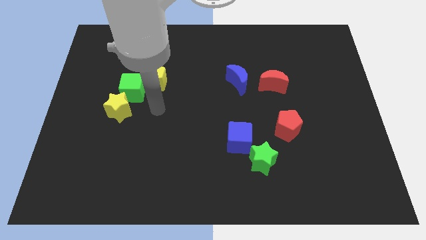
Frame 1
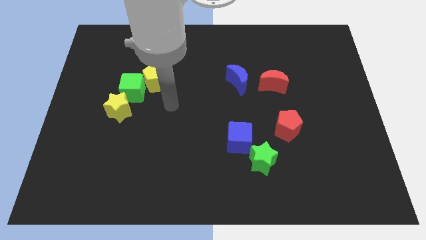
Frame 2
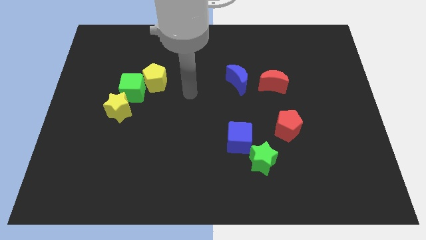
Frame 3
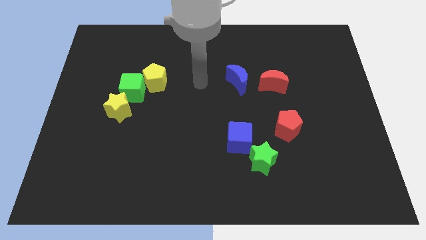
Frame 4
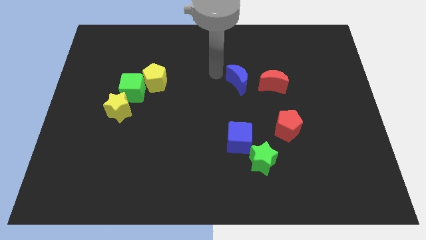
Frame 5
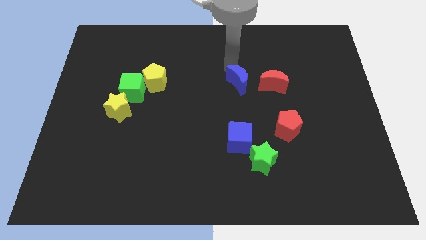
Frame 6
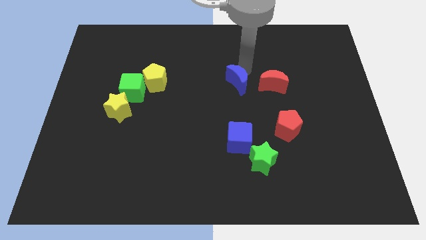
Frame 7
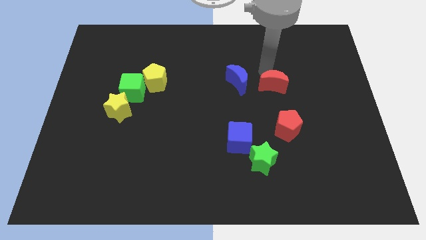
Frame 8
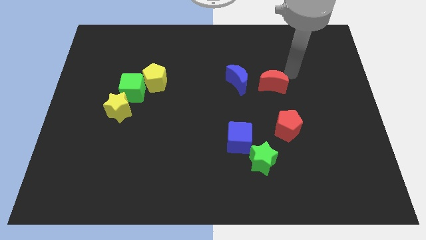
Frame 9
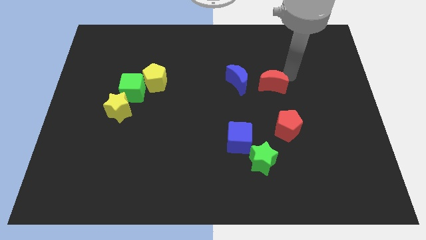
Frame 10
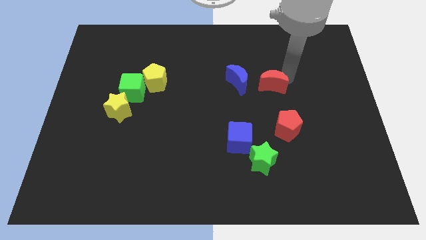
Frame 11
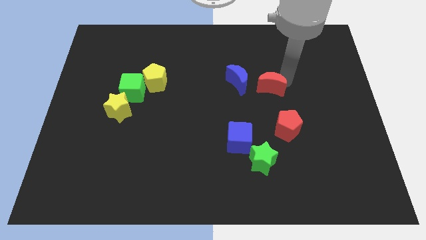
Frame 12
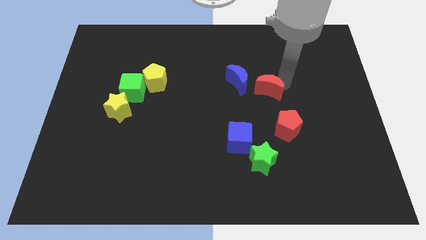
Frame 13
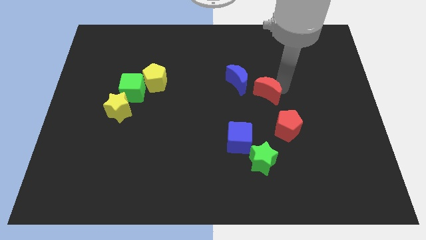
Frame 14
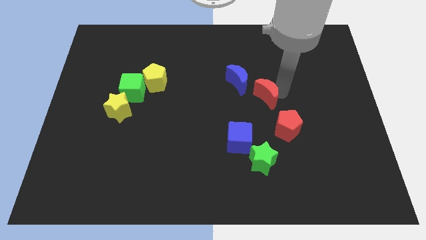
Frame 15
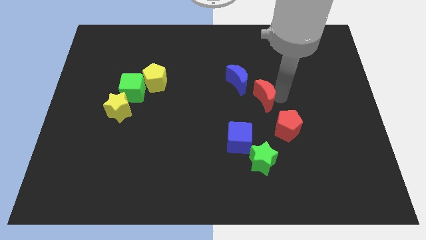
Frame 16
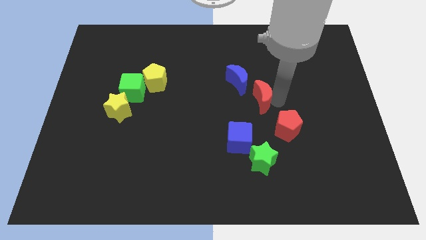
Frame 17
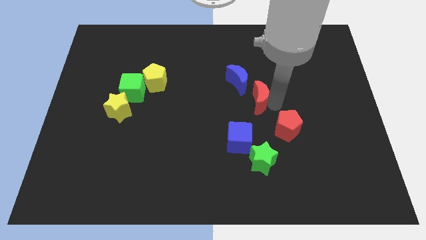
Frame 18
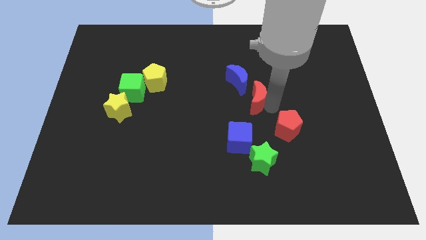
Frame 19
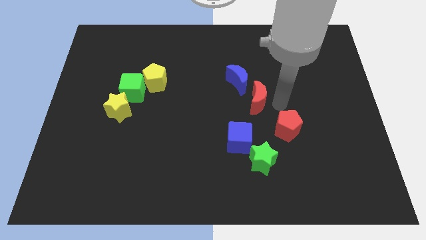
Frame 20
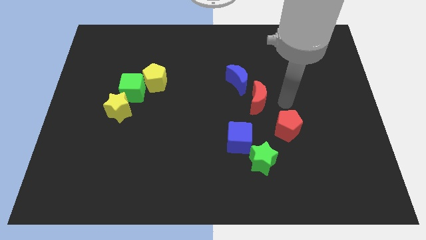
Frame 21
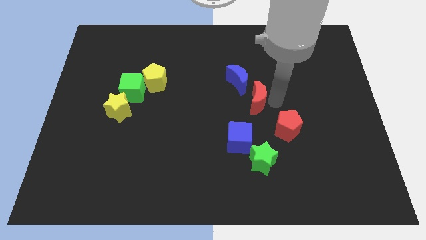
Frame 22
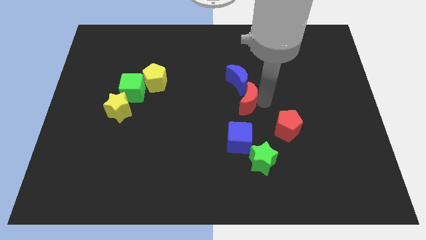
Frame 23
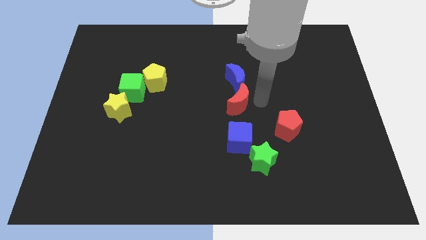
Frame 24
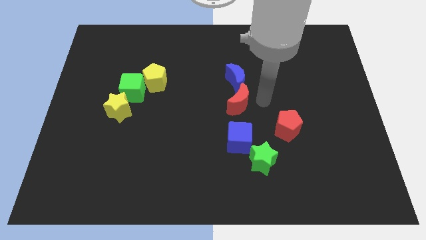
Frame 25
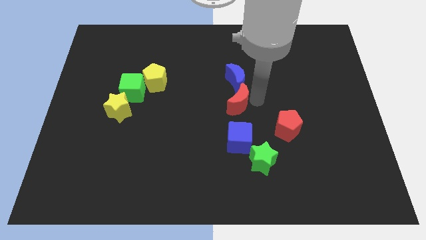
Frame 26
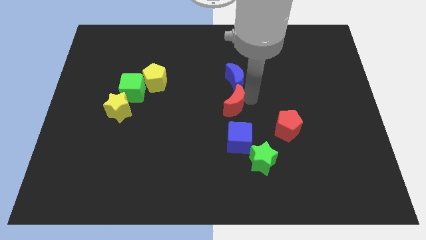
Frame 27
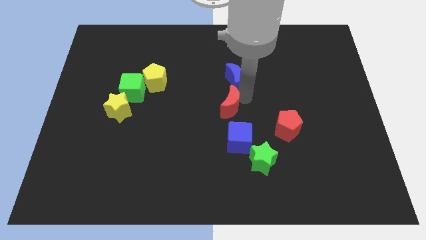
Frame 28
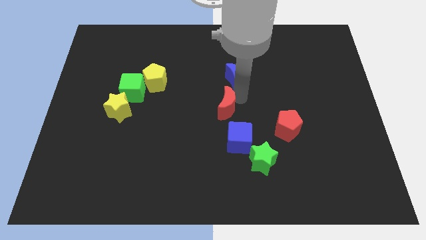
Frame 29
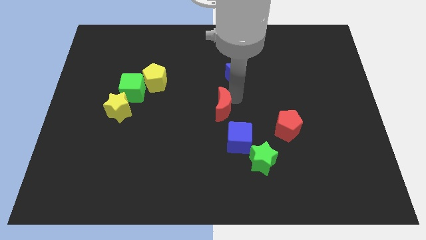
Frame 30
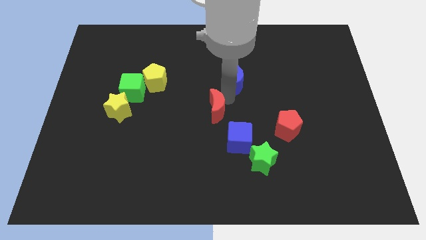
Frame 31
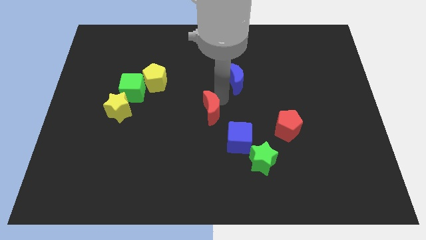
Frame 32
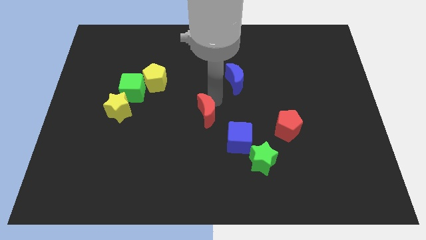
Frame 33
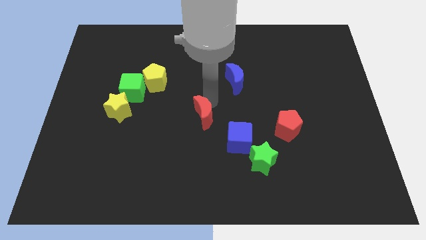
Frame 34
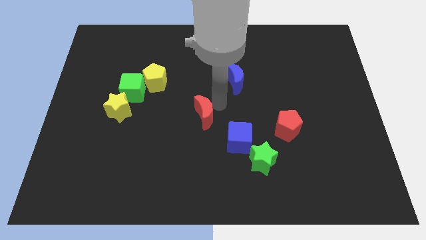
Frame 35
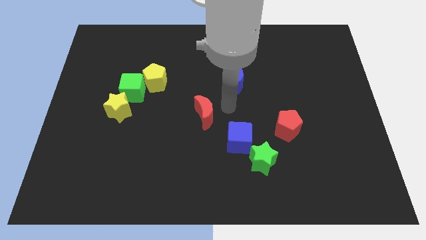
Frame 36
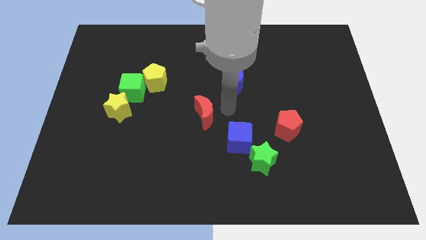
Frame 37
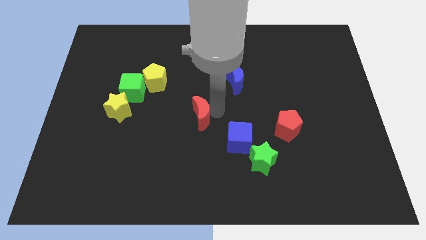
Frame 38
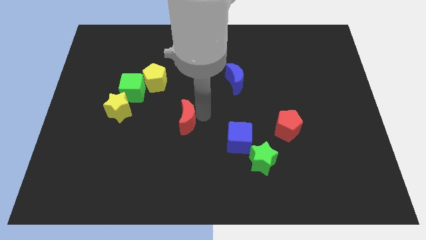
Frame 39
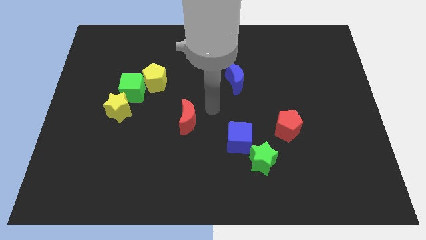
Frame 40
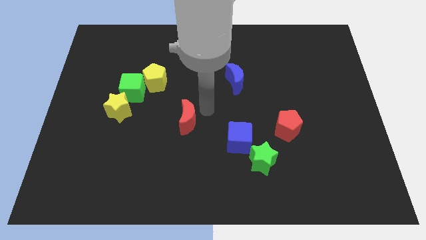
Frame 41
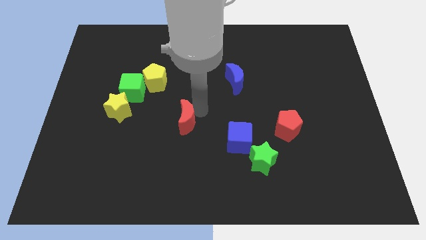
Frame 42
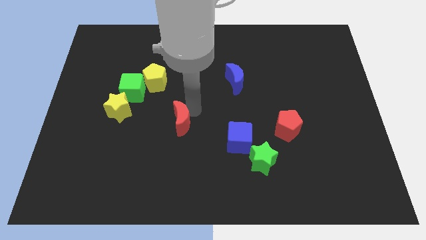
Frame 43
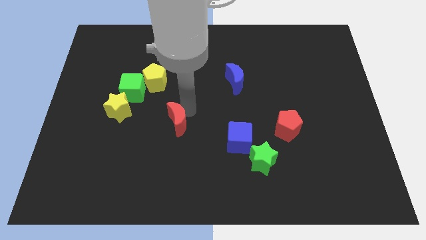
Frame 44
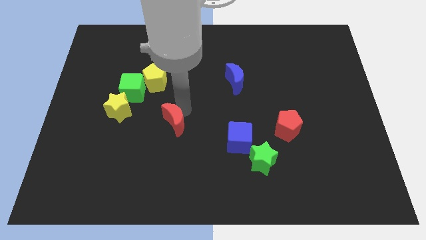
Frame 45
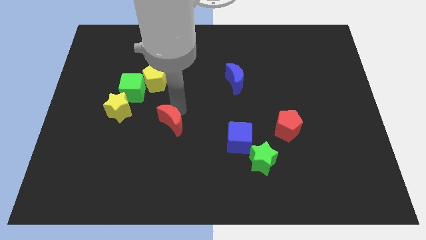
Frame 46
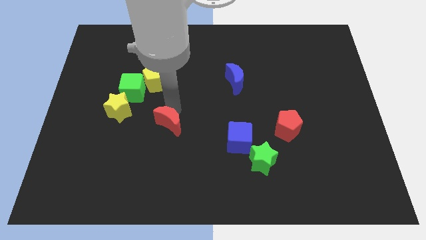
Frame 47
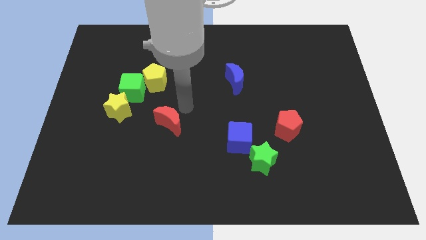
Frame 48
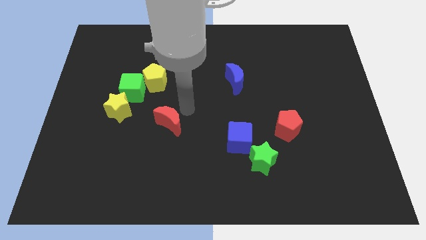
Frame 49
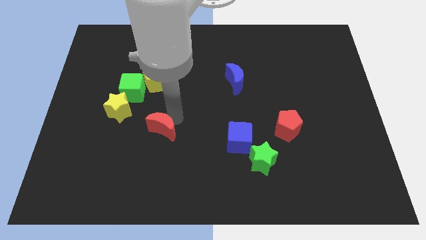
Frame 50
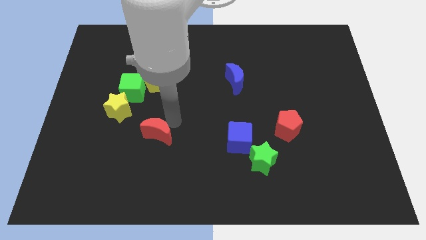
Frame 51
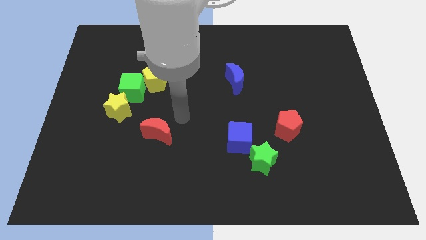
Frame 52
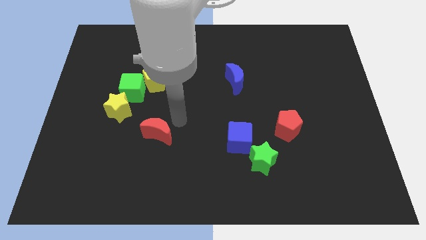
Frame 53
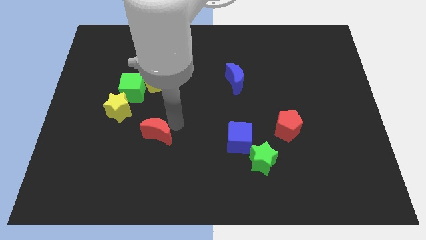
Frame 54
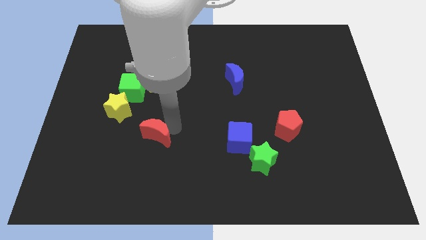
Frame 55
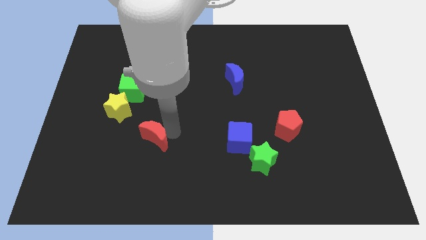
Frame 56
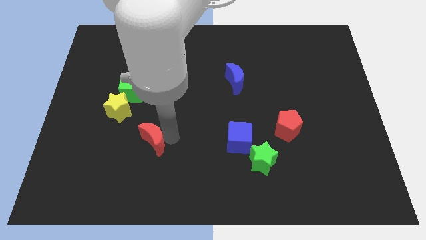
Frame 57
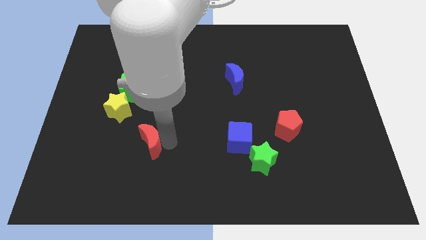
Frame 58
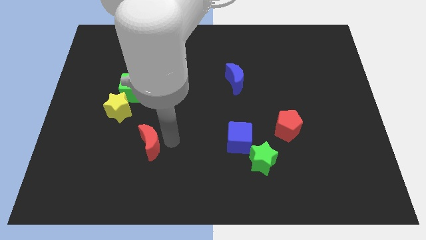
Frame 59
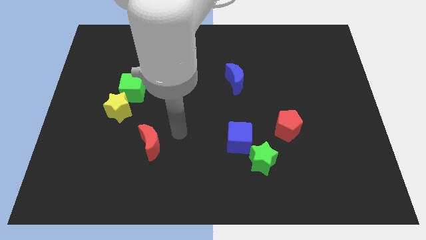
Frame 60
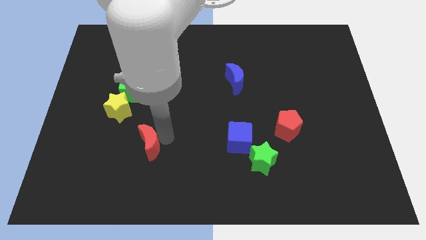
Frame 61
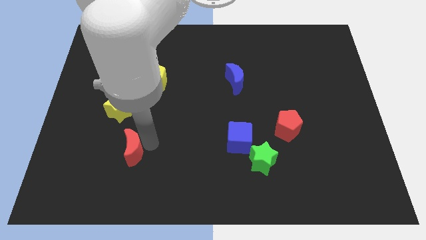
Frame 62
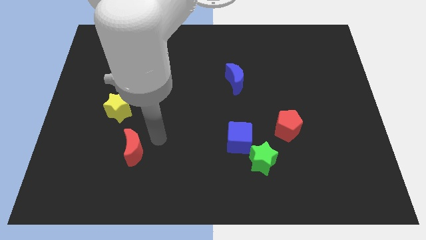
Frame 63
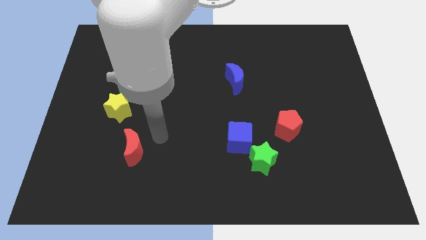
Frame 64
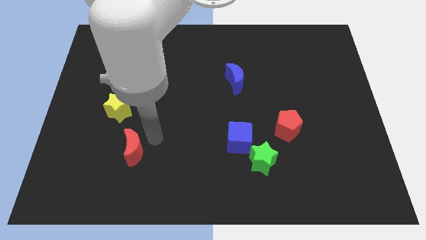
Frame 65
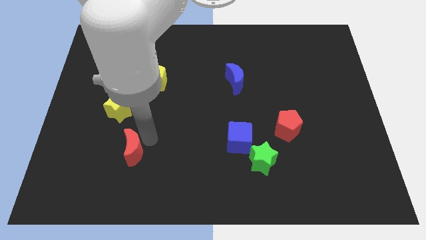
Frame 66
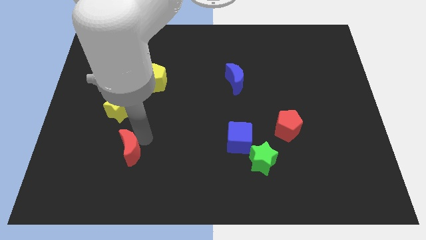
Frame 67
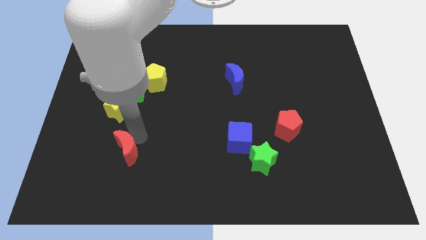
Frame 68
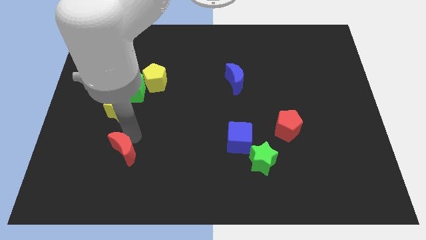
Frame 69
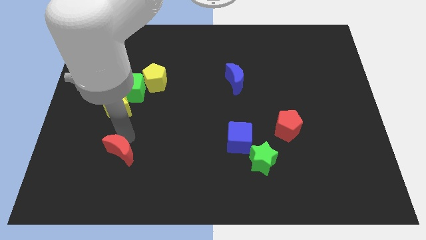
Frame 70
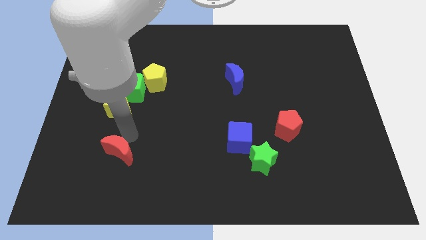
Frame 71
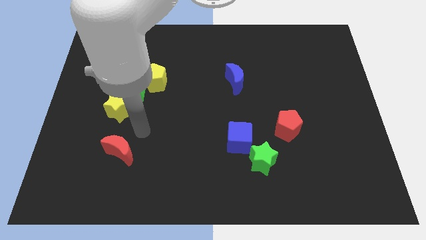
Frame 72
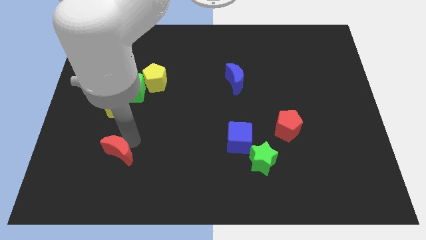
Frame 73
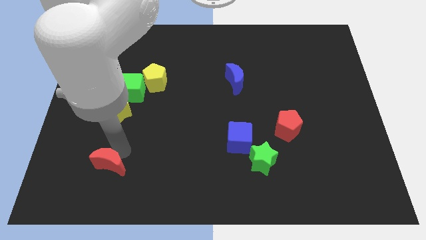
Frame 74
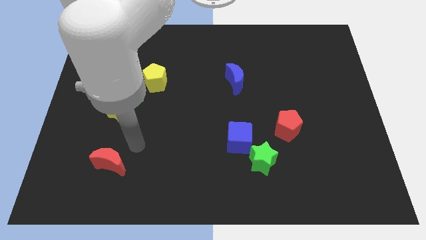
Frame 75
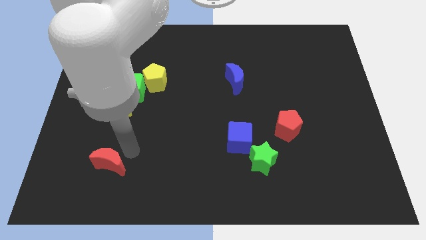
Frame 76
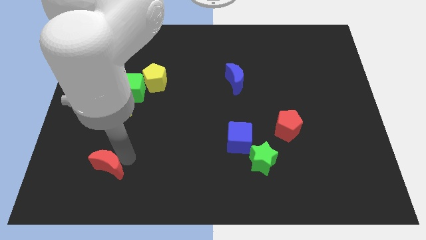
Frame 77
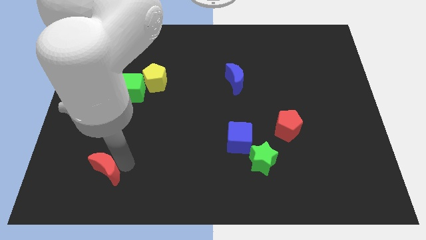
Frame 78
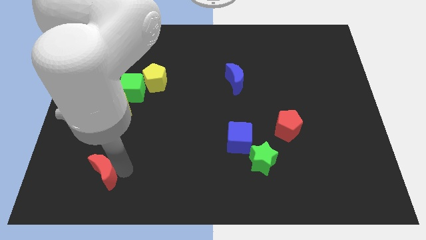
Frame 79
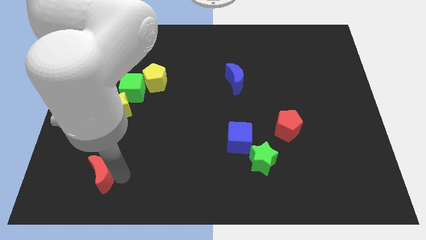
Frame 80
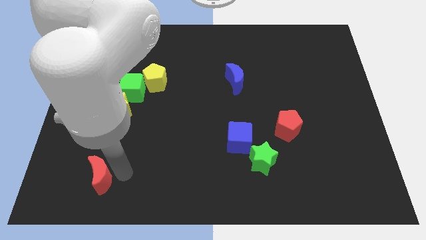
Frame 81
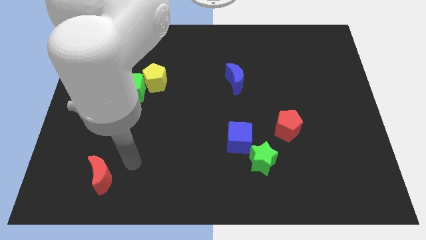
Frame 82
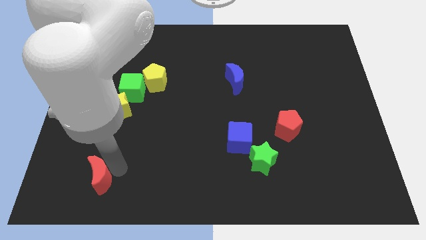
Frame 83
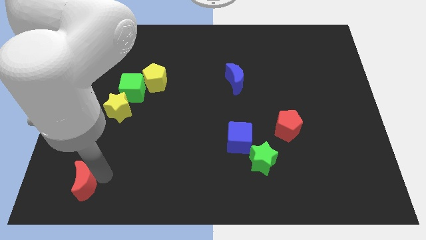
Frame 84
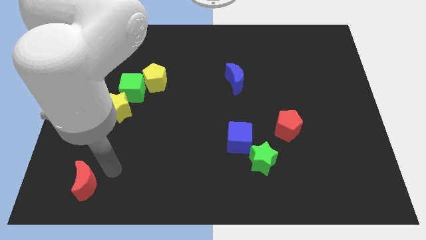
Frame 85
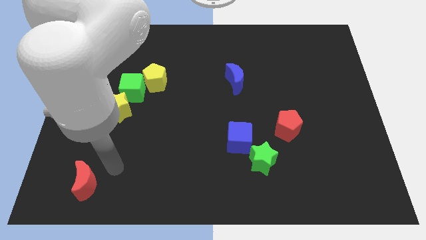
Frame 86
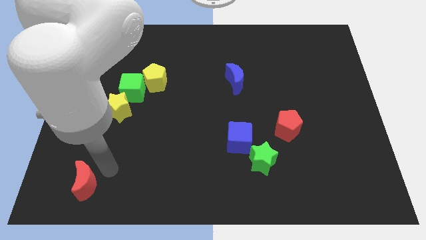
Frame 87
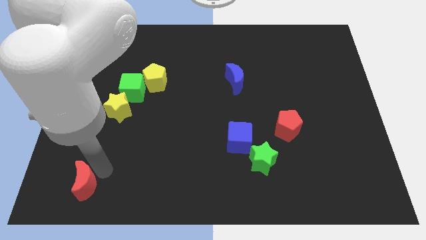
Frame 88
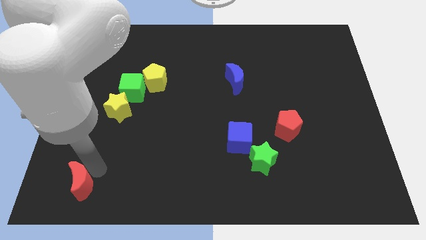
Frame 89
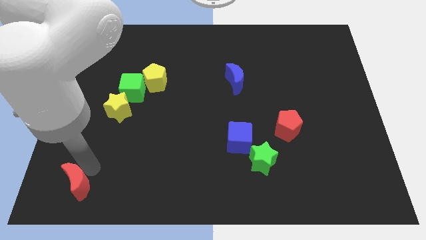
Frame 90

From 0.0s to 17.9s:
move the red moon to the bottom left of the board
